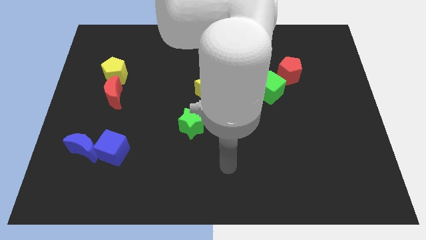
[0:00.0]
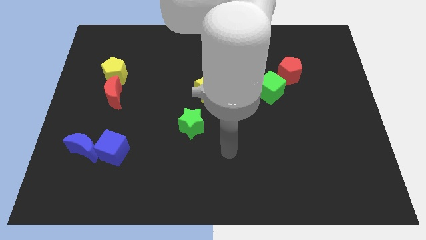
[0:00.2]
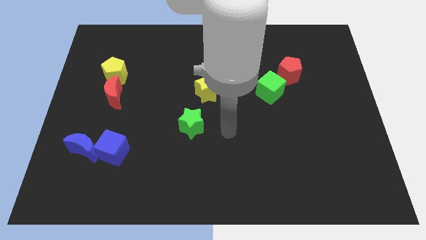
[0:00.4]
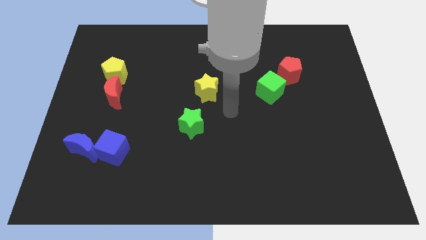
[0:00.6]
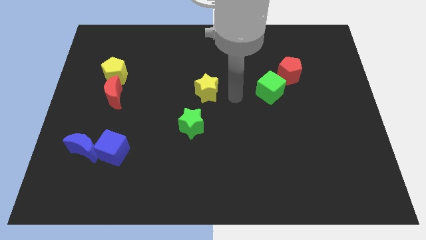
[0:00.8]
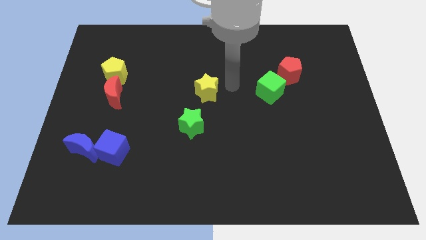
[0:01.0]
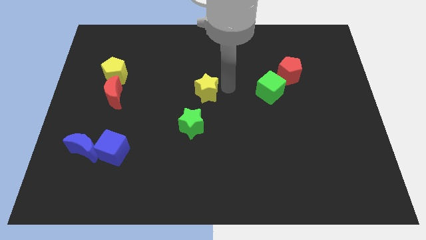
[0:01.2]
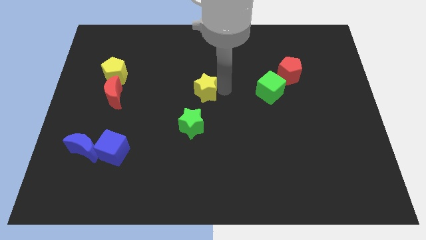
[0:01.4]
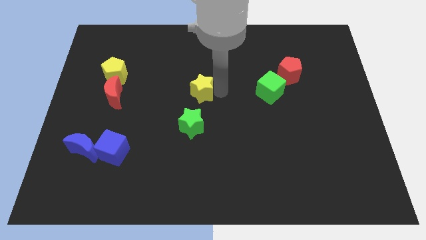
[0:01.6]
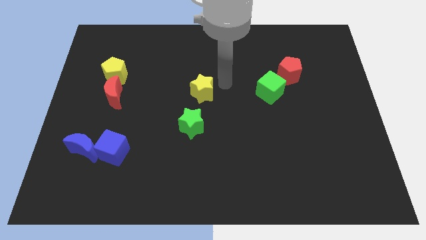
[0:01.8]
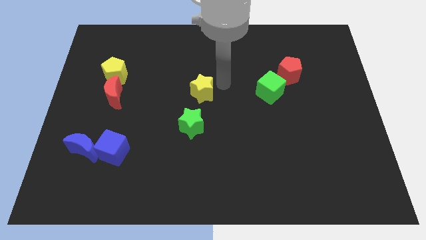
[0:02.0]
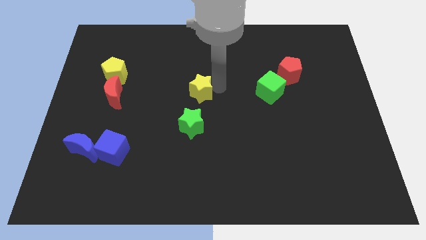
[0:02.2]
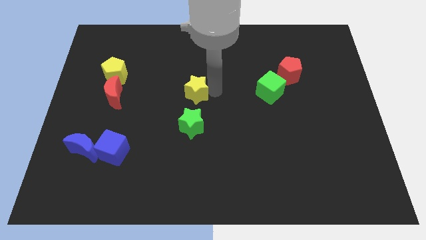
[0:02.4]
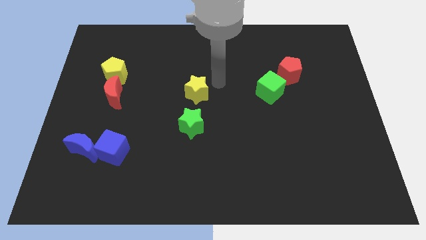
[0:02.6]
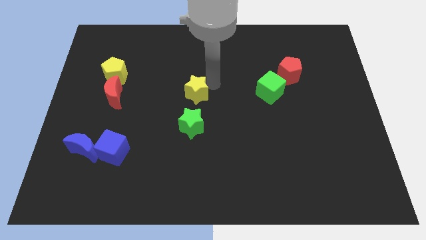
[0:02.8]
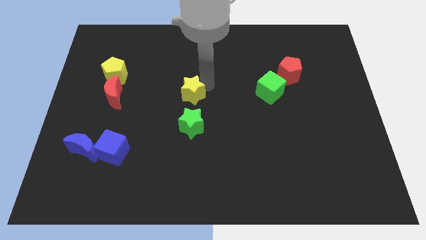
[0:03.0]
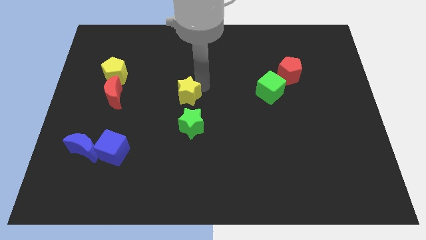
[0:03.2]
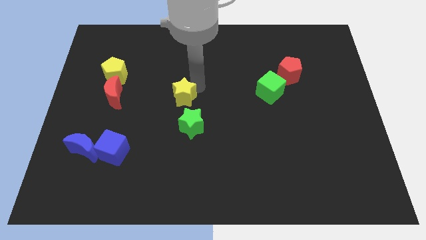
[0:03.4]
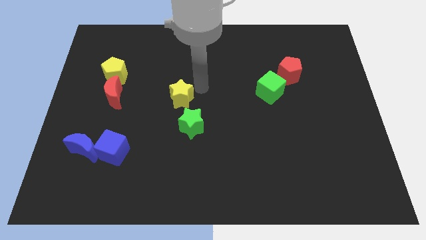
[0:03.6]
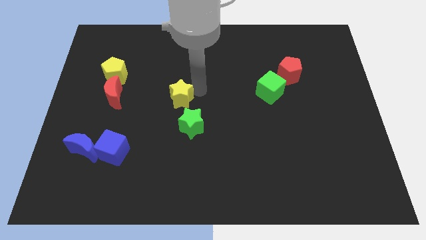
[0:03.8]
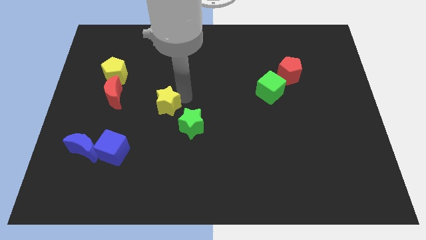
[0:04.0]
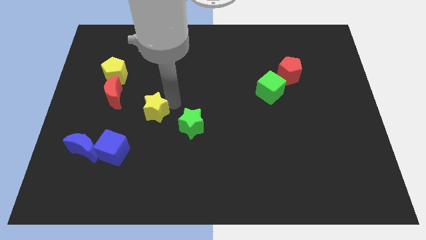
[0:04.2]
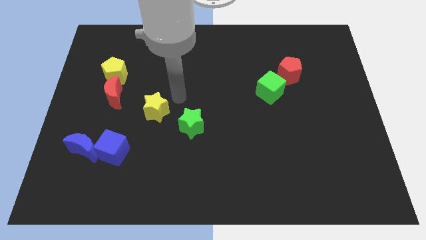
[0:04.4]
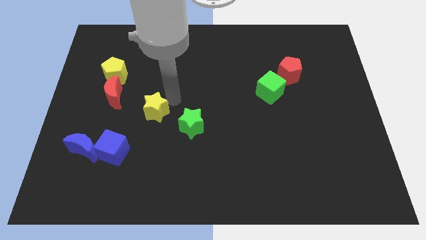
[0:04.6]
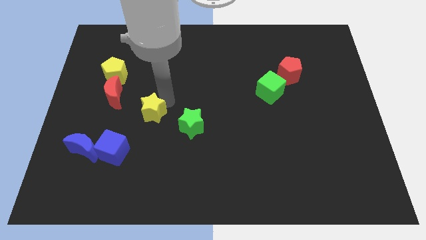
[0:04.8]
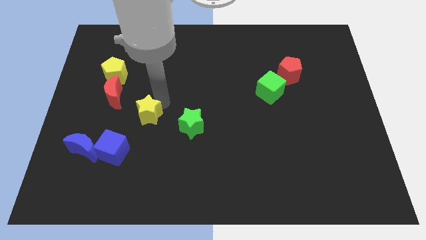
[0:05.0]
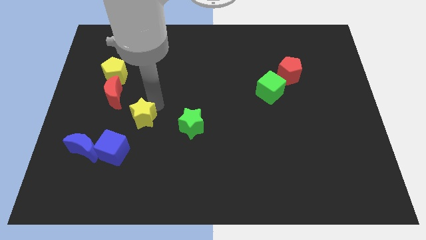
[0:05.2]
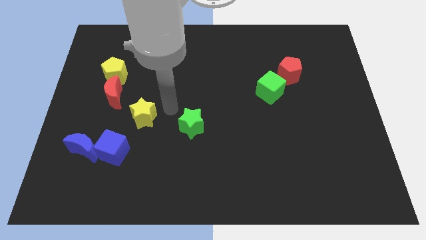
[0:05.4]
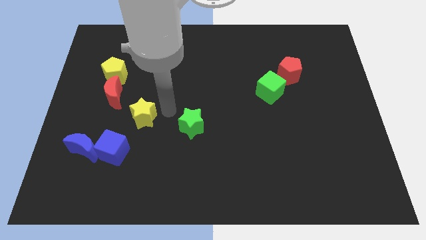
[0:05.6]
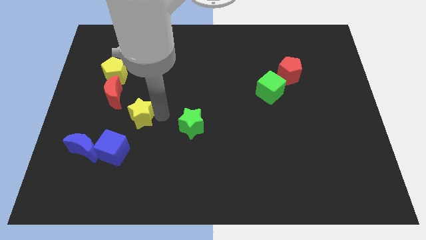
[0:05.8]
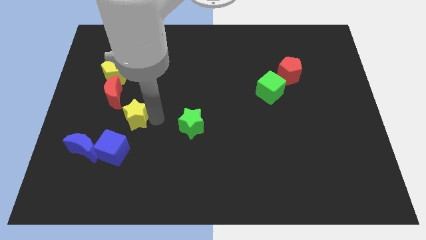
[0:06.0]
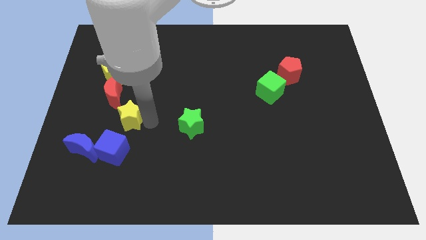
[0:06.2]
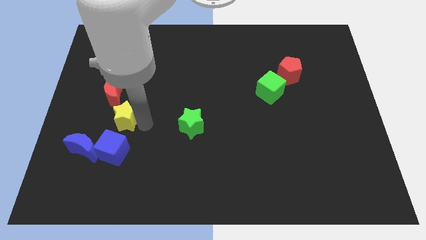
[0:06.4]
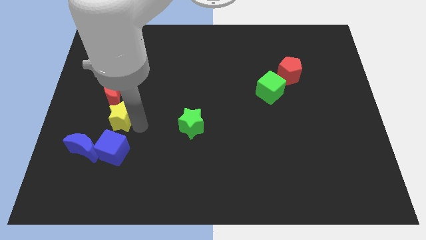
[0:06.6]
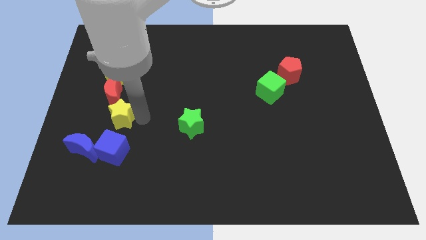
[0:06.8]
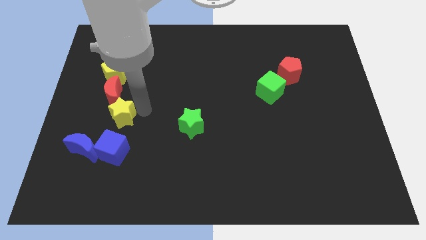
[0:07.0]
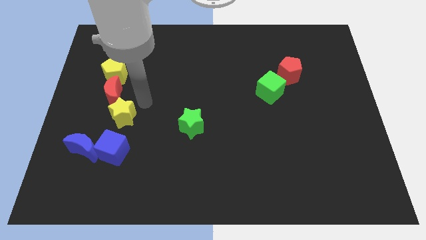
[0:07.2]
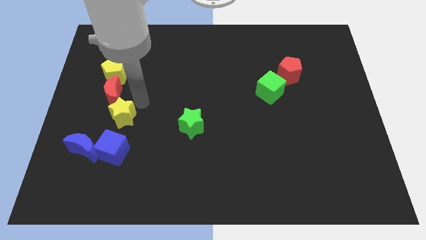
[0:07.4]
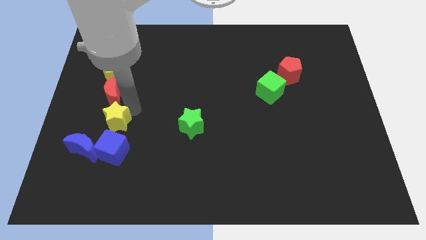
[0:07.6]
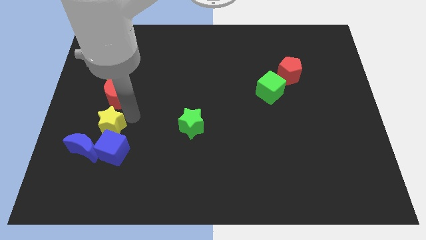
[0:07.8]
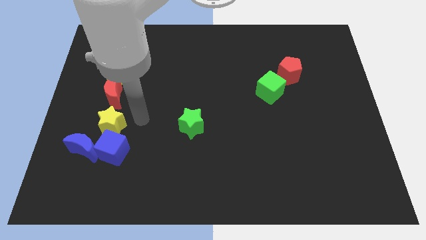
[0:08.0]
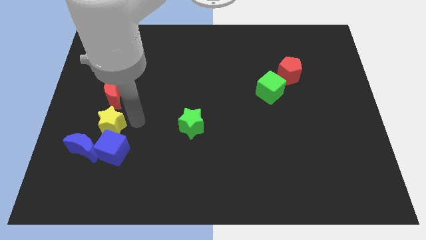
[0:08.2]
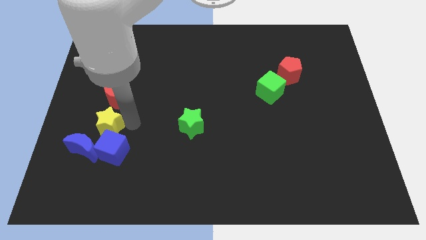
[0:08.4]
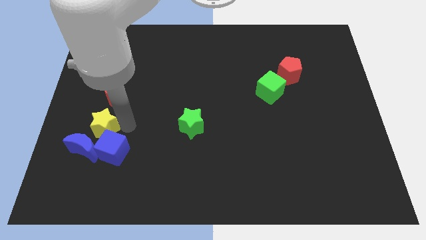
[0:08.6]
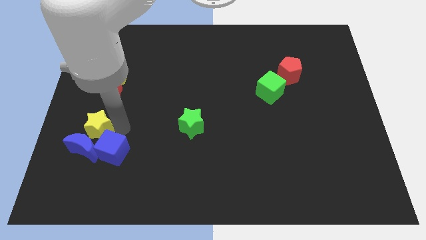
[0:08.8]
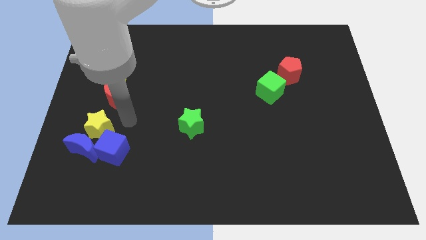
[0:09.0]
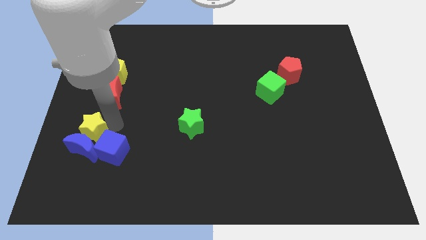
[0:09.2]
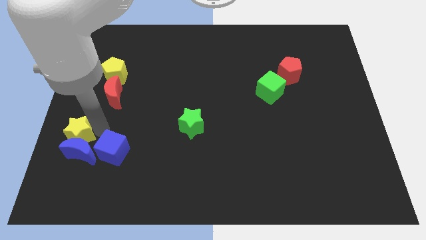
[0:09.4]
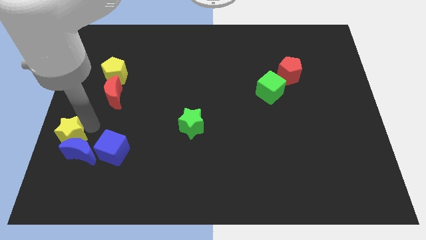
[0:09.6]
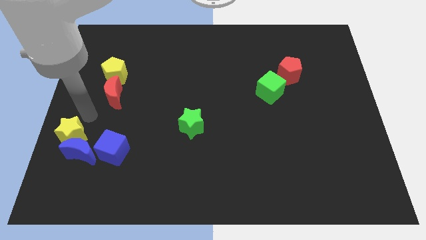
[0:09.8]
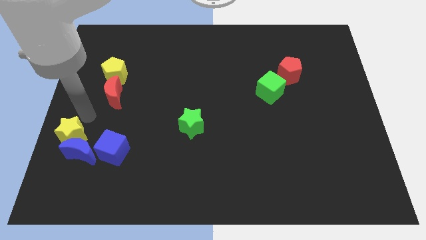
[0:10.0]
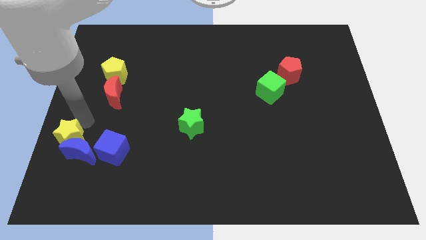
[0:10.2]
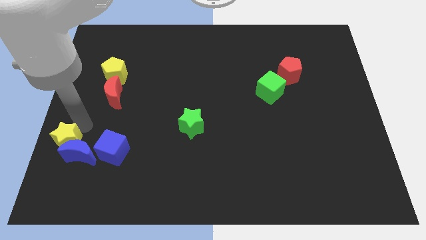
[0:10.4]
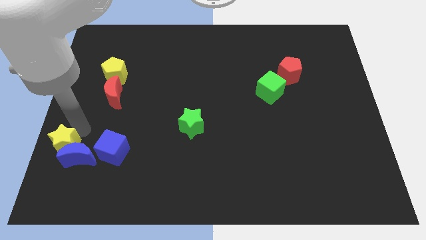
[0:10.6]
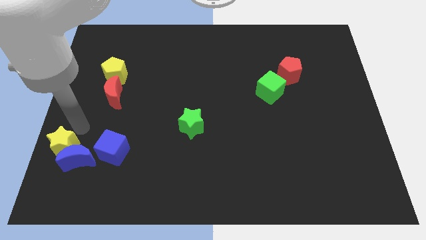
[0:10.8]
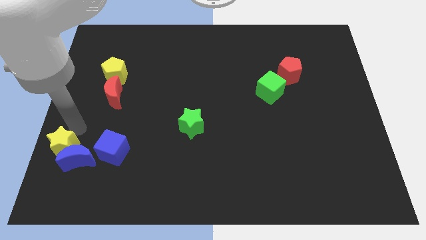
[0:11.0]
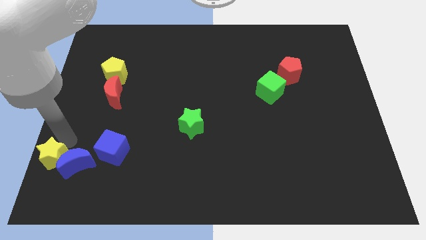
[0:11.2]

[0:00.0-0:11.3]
slide the yellow star to the bottom left

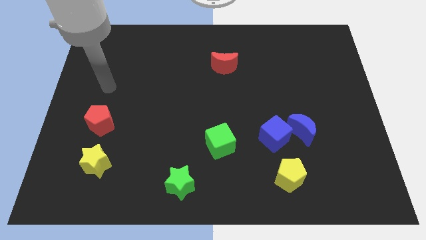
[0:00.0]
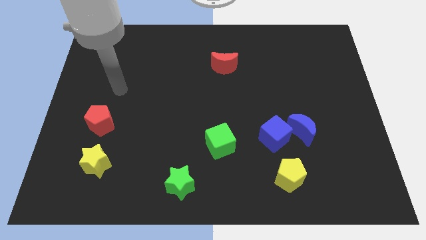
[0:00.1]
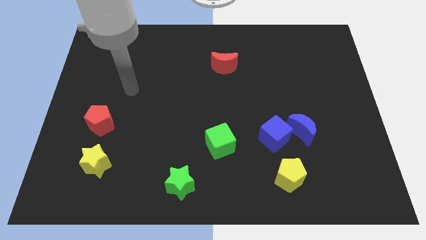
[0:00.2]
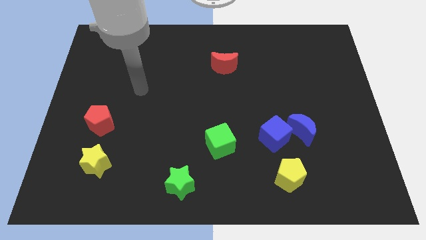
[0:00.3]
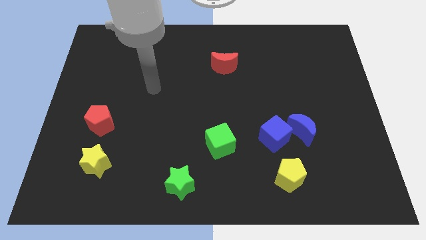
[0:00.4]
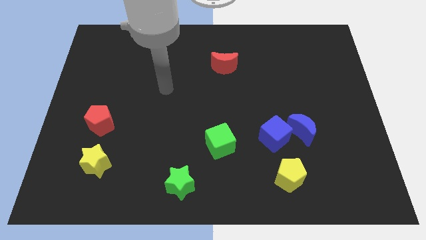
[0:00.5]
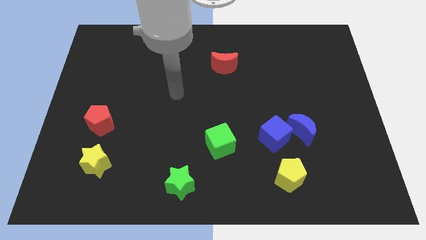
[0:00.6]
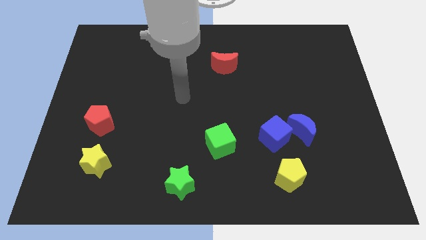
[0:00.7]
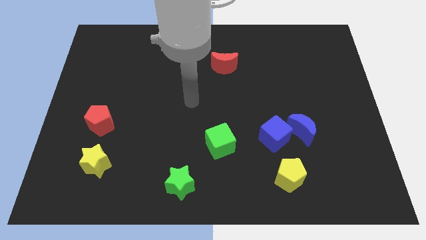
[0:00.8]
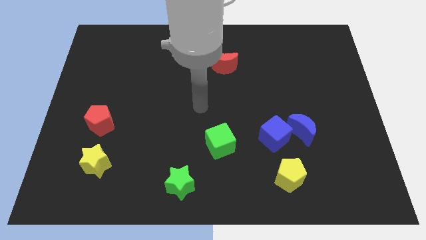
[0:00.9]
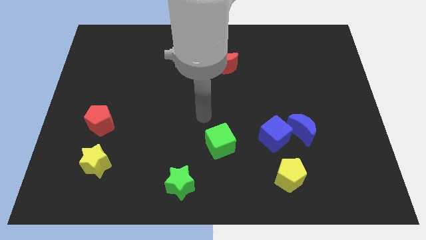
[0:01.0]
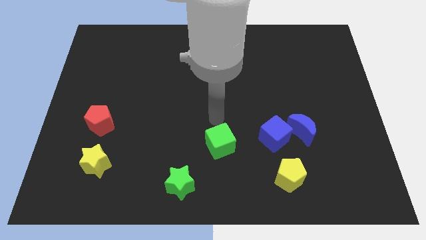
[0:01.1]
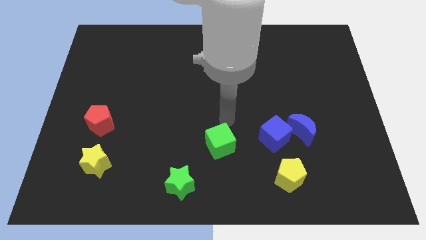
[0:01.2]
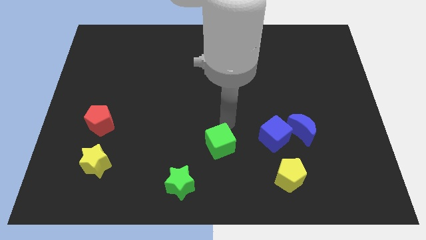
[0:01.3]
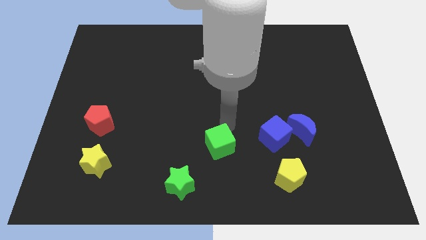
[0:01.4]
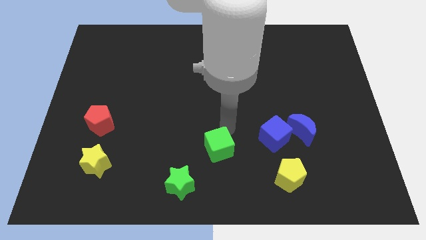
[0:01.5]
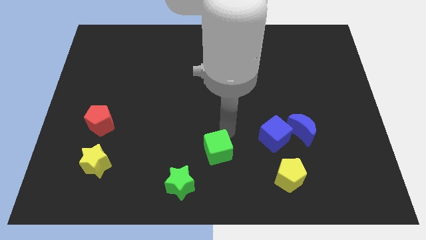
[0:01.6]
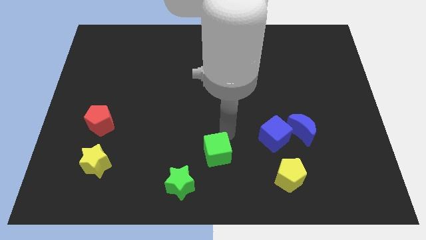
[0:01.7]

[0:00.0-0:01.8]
slide the green cube to the bottom side
